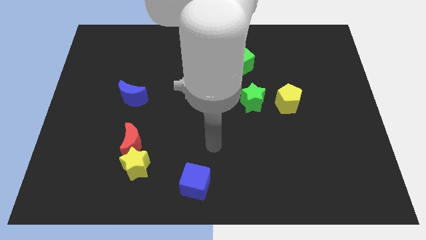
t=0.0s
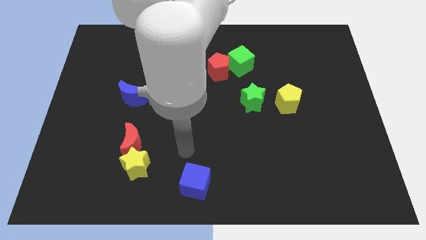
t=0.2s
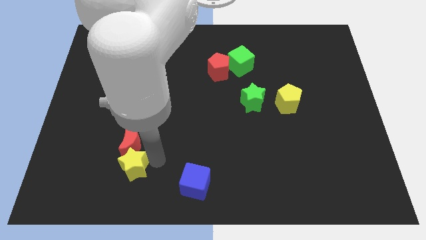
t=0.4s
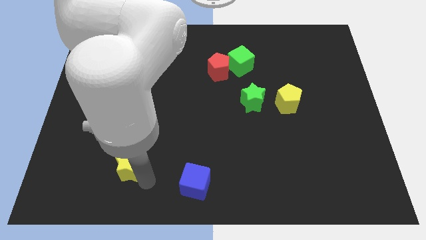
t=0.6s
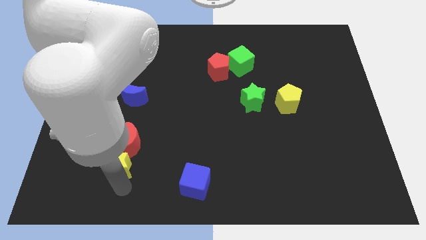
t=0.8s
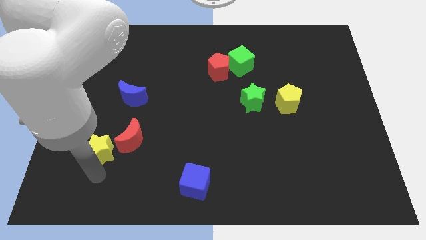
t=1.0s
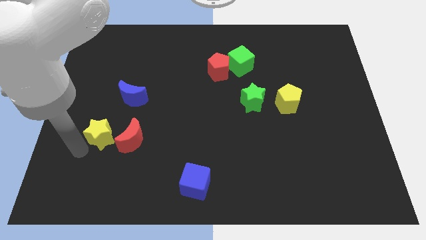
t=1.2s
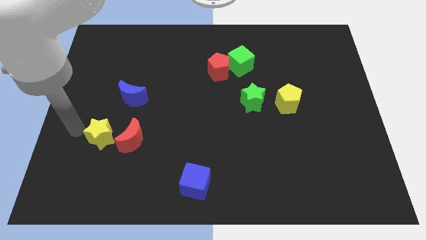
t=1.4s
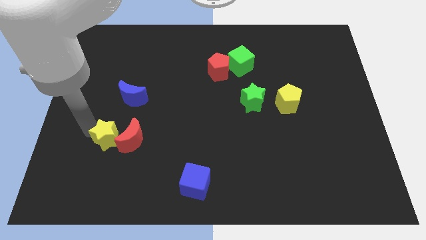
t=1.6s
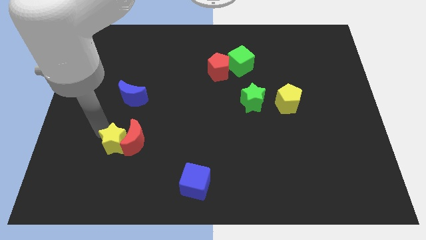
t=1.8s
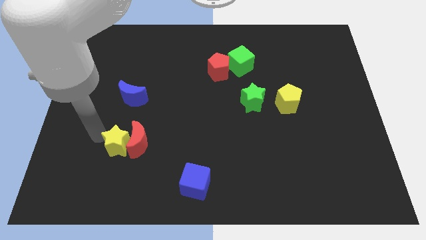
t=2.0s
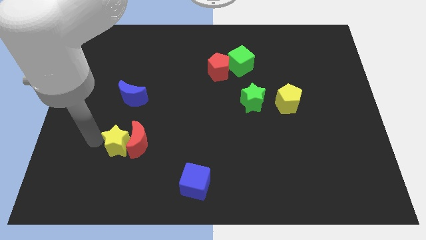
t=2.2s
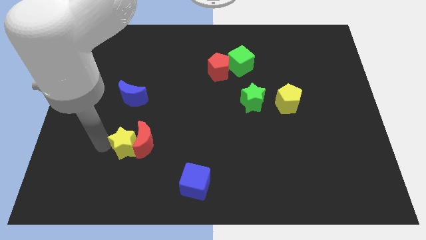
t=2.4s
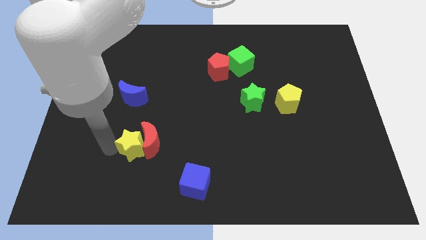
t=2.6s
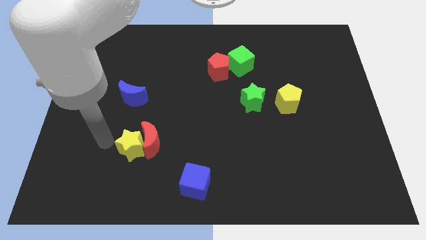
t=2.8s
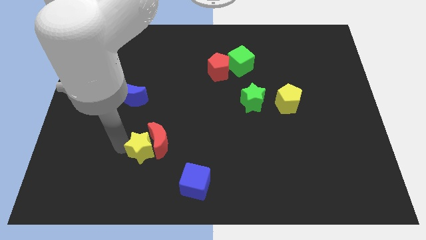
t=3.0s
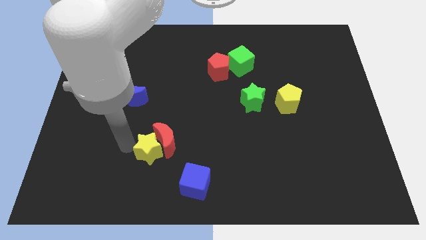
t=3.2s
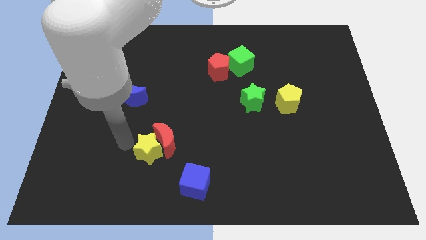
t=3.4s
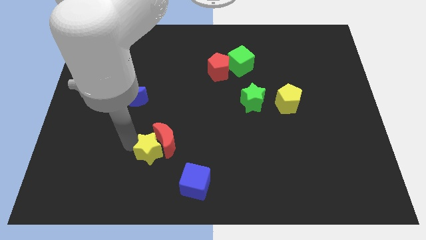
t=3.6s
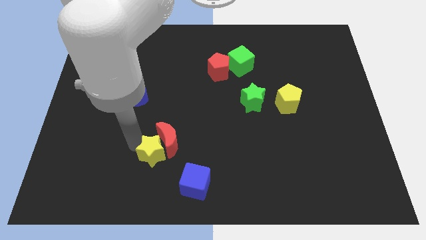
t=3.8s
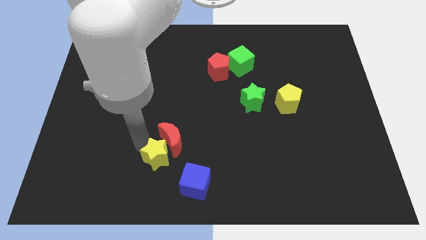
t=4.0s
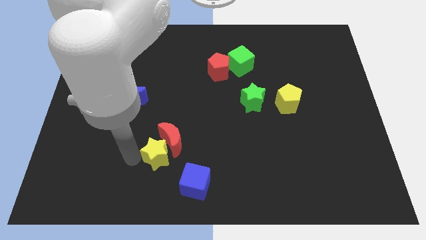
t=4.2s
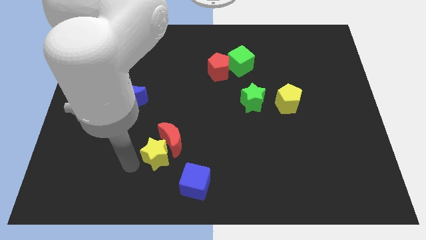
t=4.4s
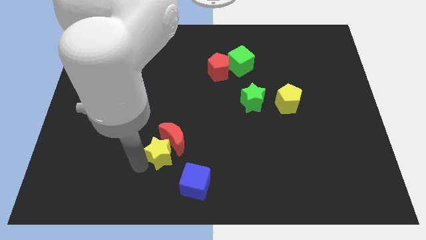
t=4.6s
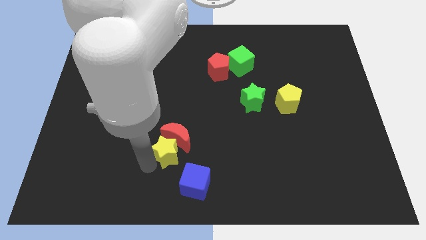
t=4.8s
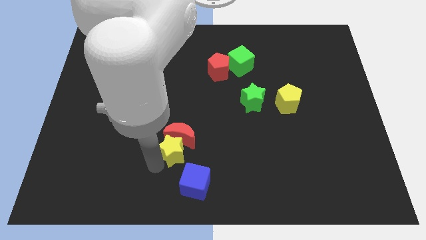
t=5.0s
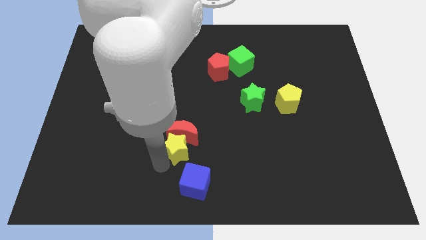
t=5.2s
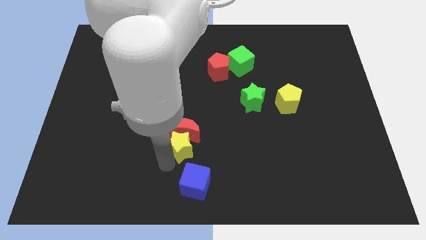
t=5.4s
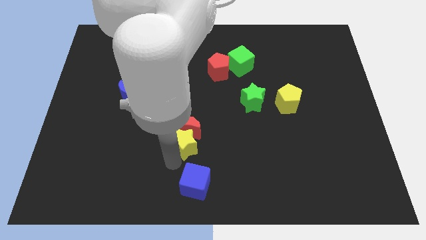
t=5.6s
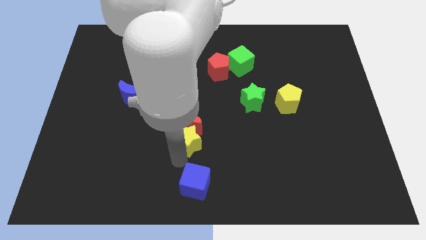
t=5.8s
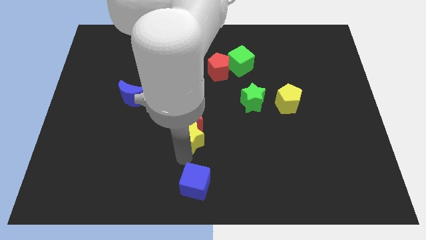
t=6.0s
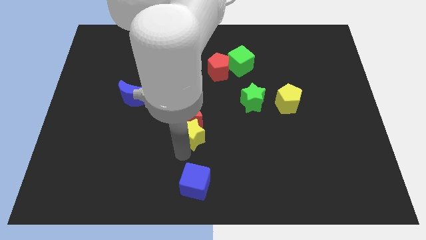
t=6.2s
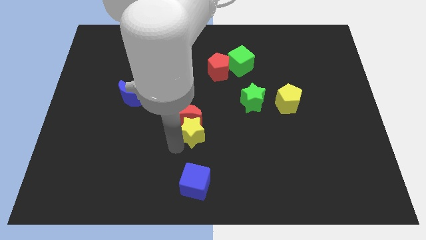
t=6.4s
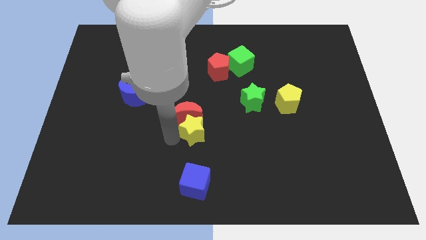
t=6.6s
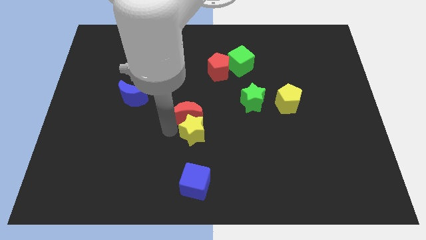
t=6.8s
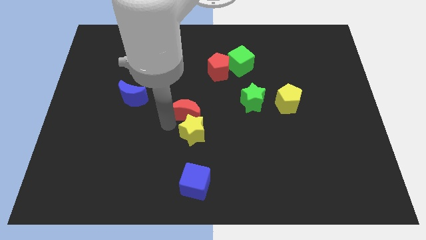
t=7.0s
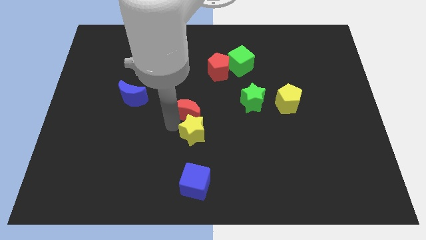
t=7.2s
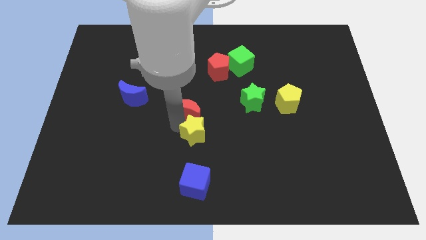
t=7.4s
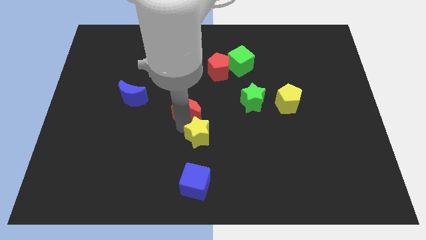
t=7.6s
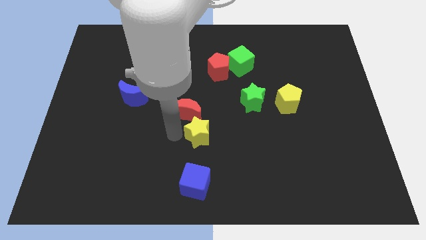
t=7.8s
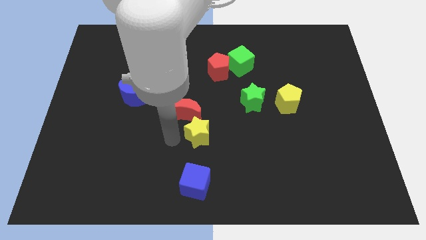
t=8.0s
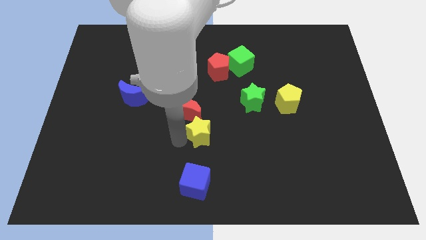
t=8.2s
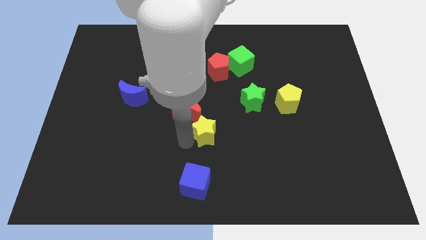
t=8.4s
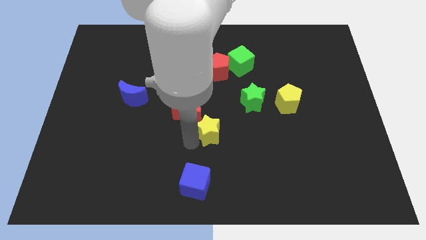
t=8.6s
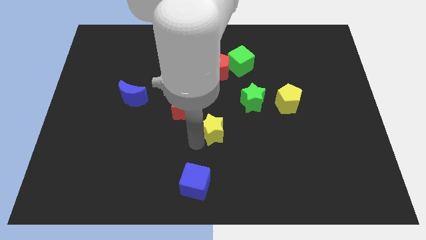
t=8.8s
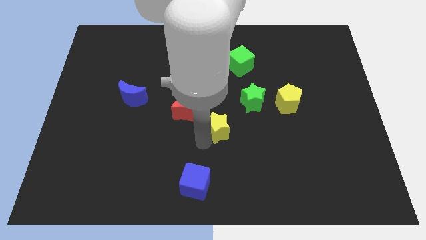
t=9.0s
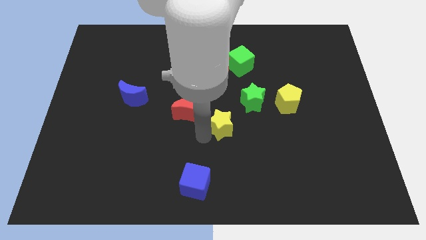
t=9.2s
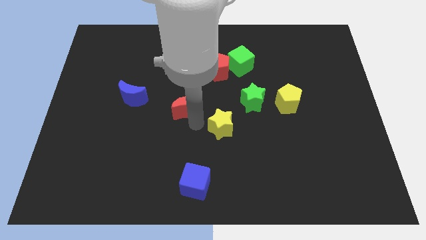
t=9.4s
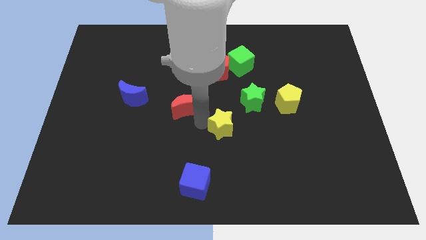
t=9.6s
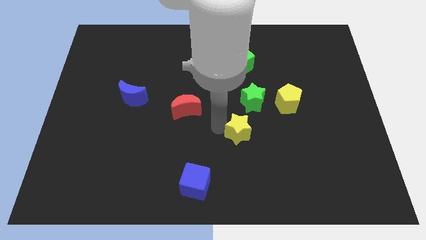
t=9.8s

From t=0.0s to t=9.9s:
push the yellow star to the bottom side of the green star

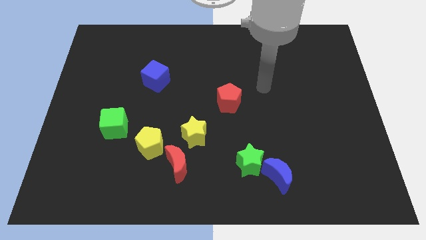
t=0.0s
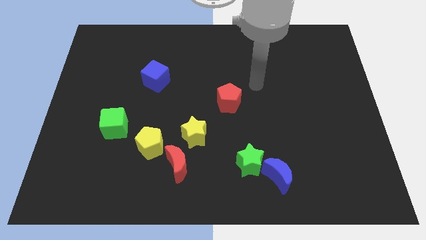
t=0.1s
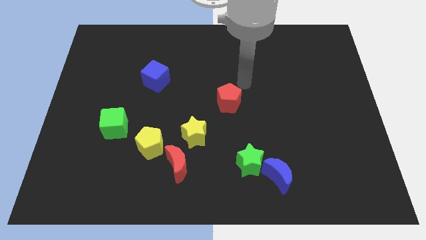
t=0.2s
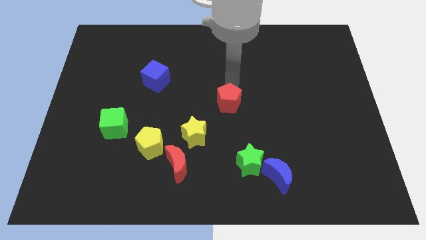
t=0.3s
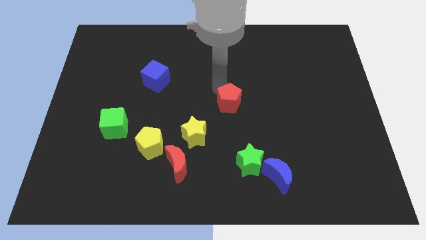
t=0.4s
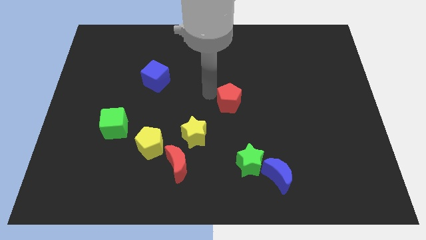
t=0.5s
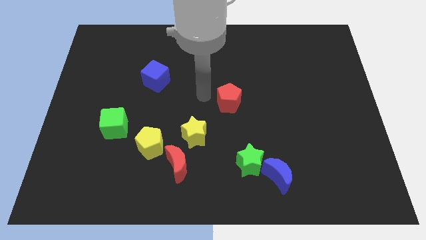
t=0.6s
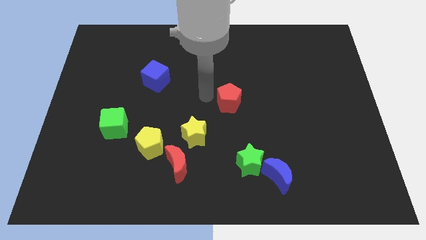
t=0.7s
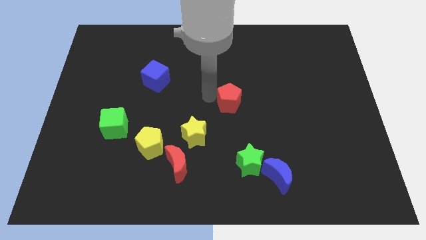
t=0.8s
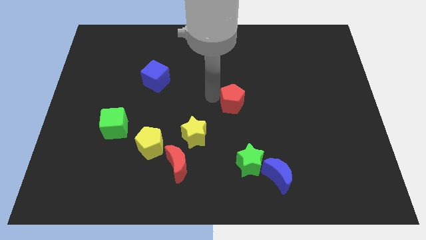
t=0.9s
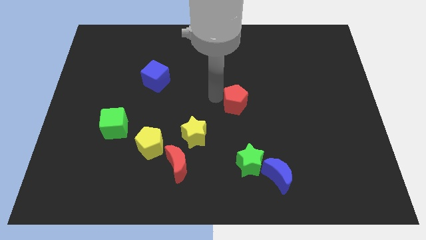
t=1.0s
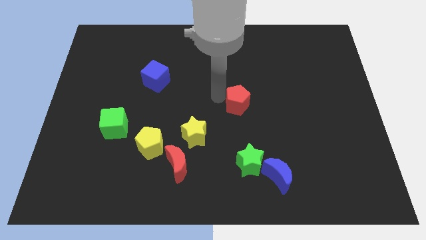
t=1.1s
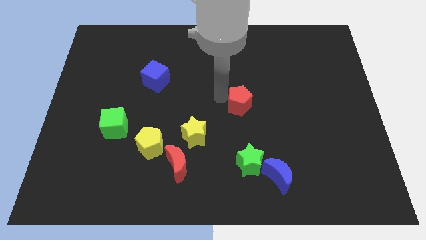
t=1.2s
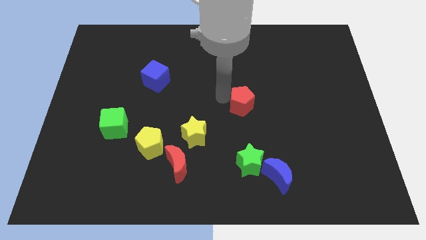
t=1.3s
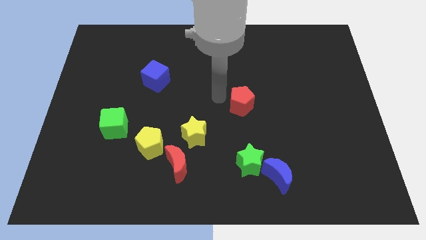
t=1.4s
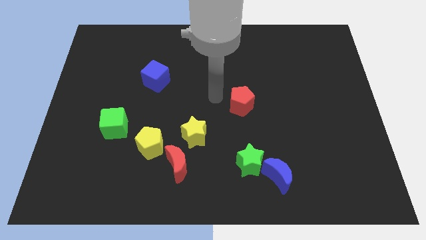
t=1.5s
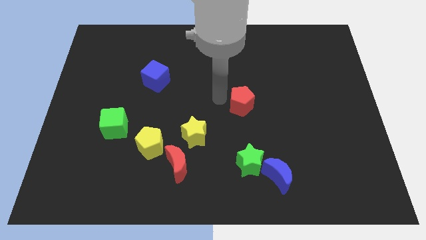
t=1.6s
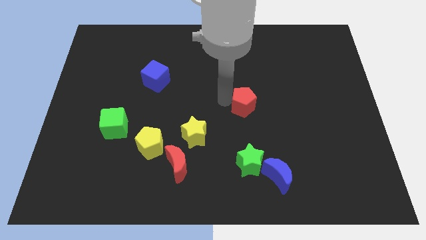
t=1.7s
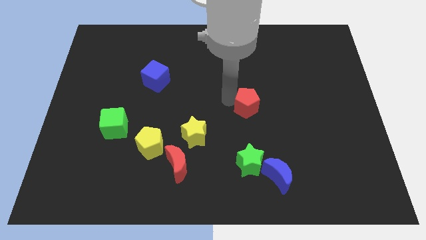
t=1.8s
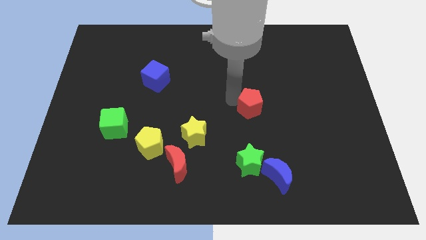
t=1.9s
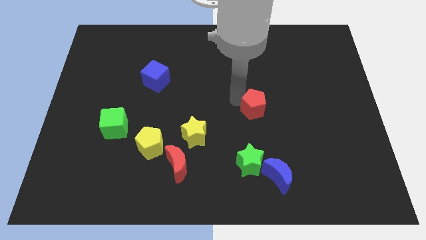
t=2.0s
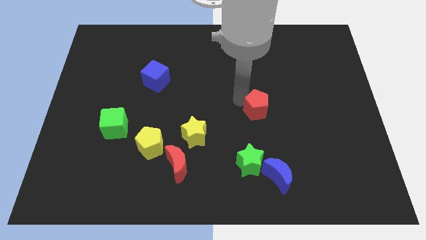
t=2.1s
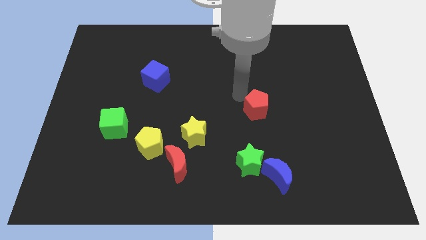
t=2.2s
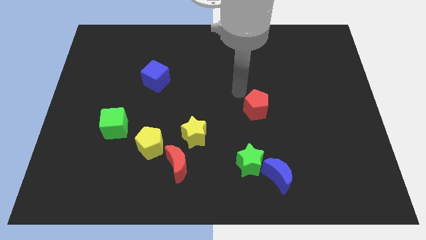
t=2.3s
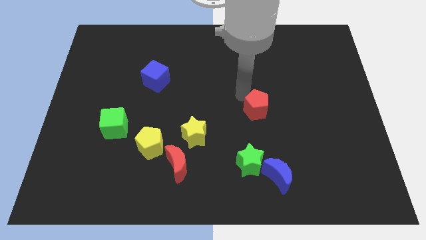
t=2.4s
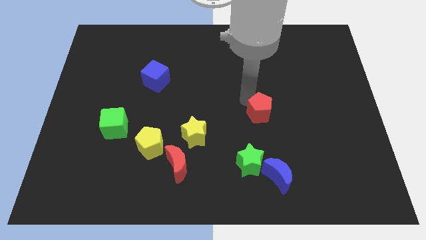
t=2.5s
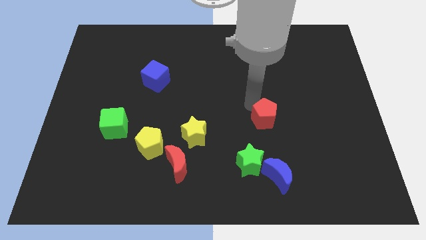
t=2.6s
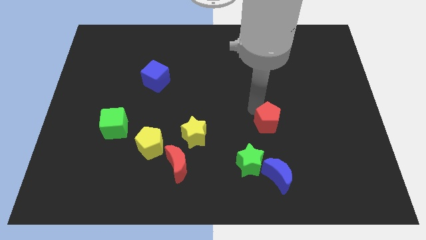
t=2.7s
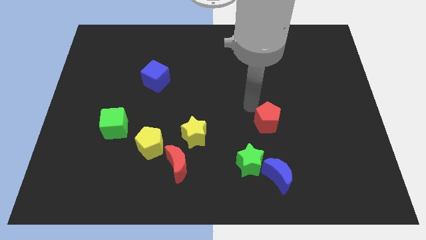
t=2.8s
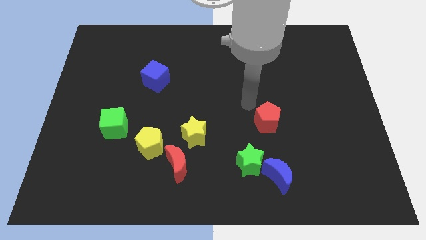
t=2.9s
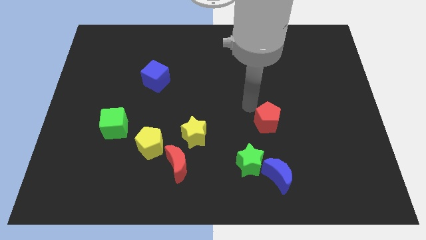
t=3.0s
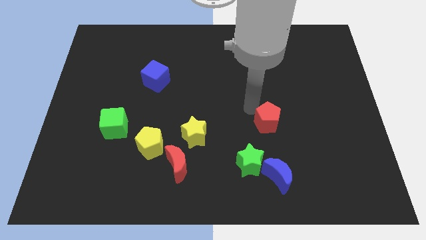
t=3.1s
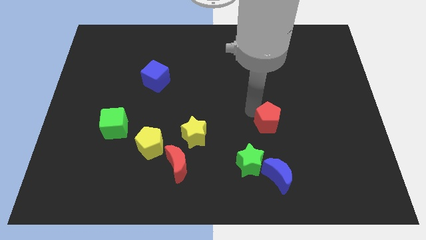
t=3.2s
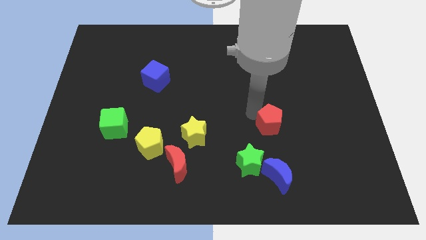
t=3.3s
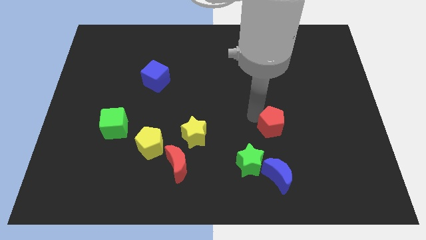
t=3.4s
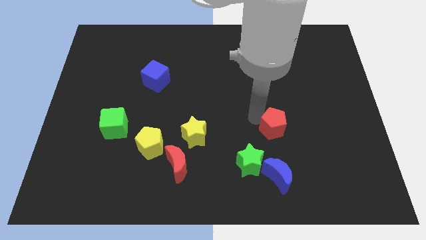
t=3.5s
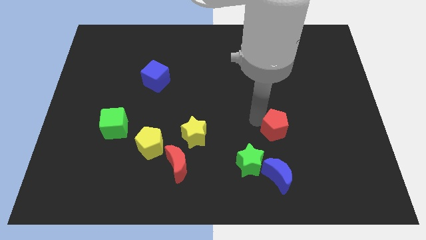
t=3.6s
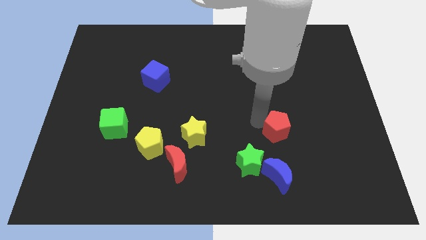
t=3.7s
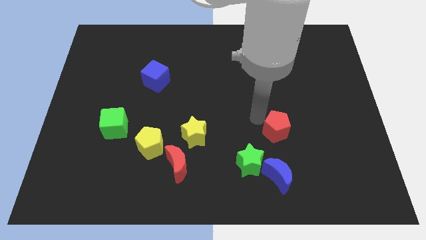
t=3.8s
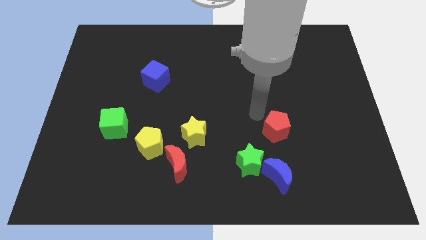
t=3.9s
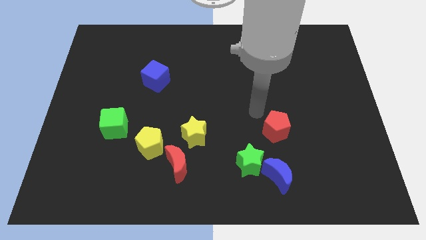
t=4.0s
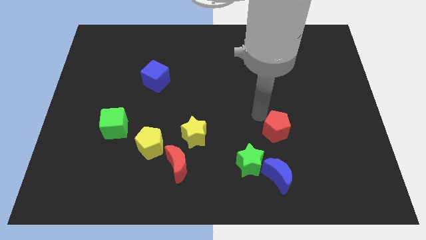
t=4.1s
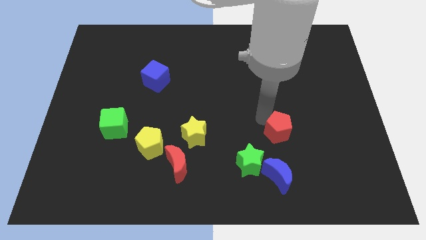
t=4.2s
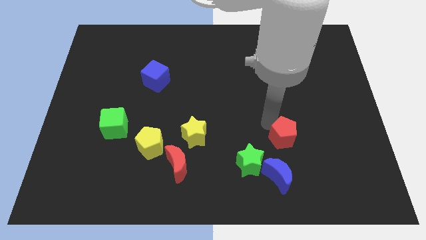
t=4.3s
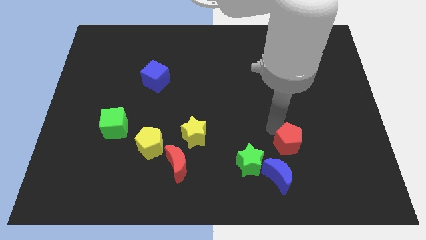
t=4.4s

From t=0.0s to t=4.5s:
put the red pentagon to the top right side of the blue moon
